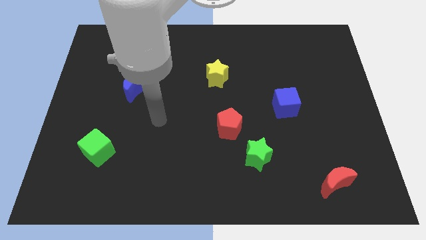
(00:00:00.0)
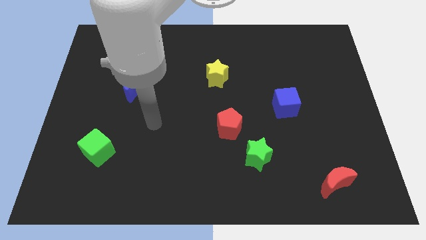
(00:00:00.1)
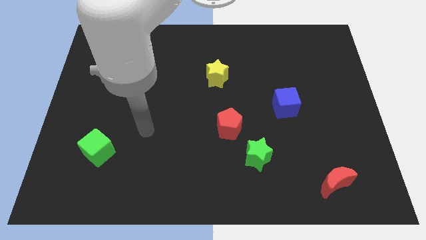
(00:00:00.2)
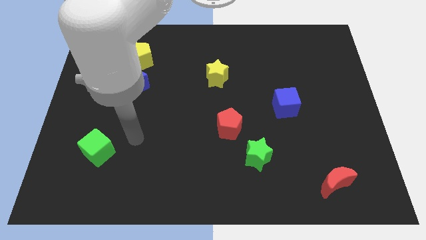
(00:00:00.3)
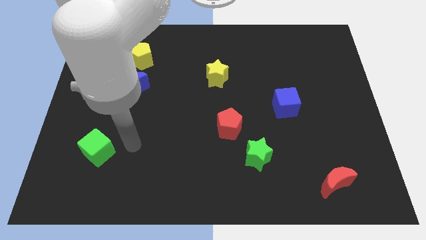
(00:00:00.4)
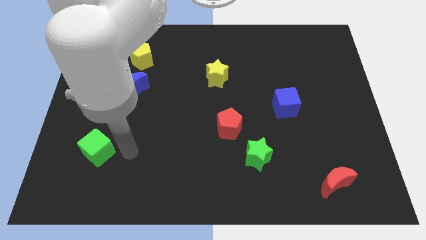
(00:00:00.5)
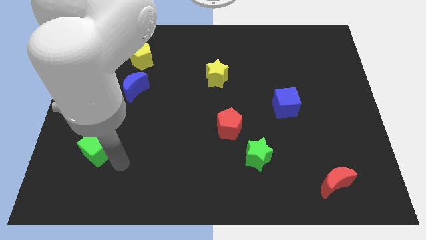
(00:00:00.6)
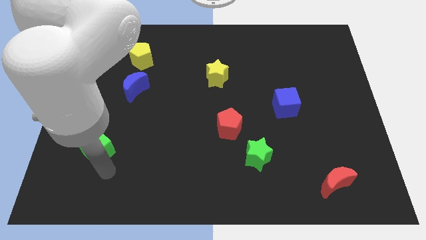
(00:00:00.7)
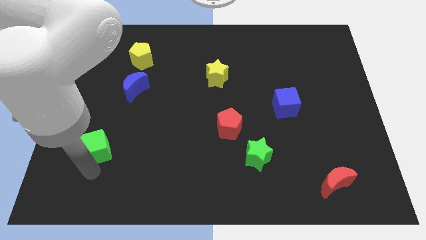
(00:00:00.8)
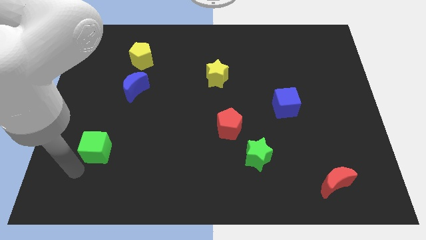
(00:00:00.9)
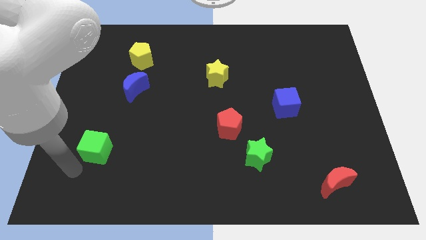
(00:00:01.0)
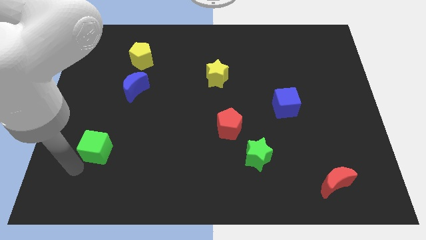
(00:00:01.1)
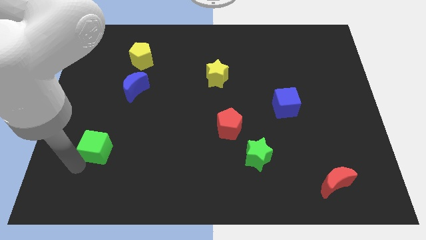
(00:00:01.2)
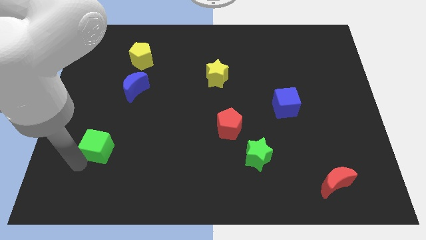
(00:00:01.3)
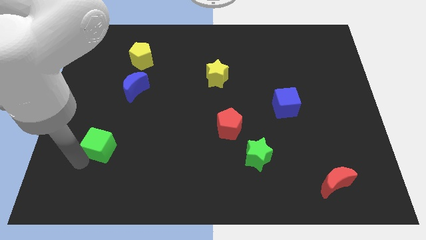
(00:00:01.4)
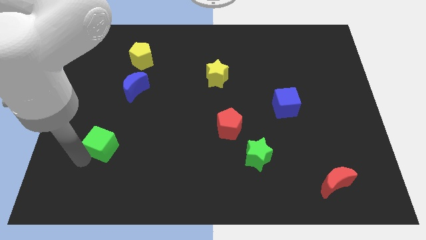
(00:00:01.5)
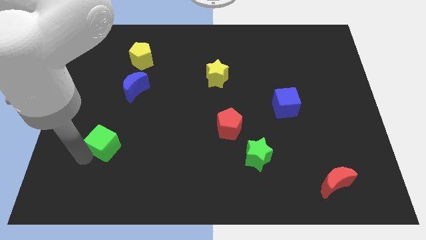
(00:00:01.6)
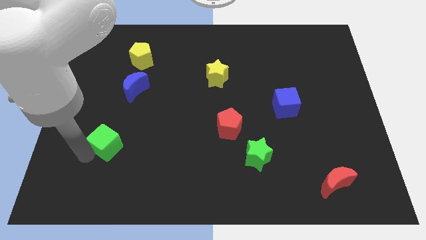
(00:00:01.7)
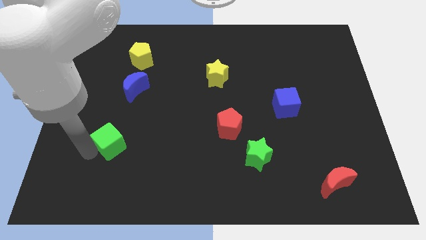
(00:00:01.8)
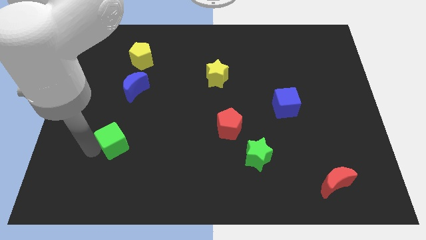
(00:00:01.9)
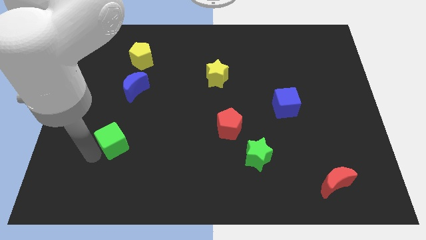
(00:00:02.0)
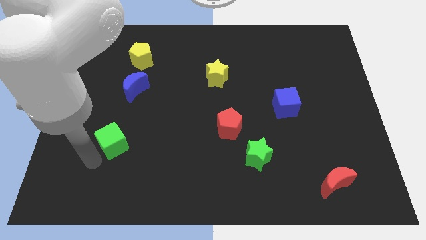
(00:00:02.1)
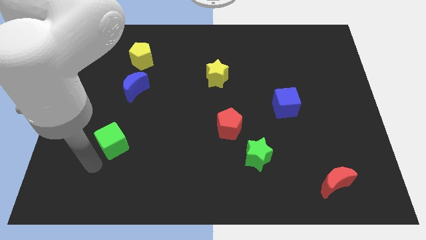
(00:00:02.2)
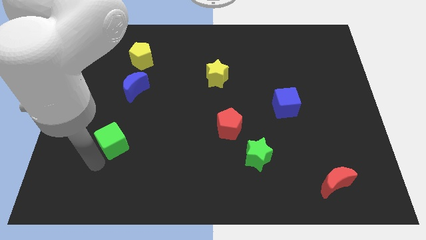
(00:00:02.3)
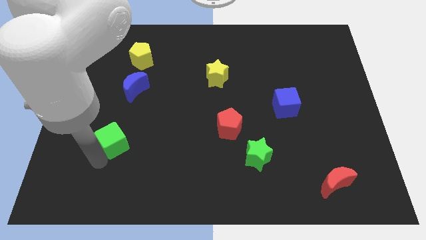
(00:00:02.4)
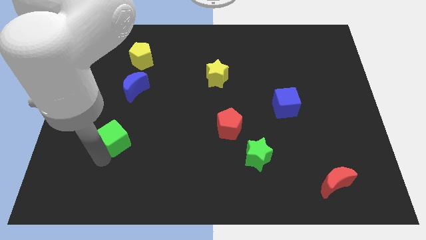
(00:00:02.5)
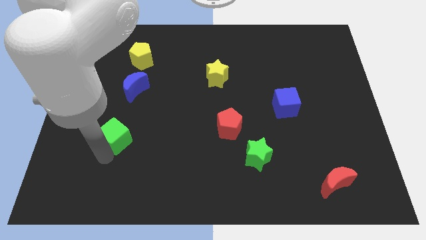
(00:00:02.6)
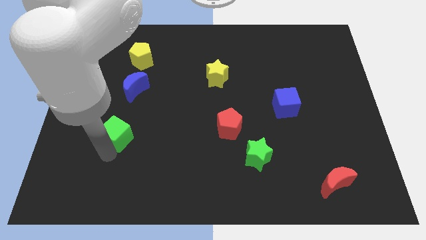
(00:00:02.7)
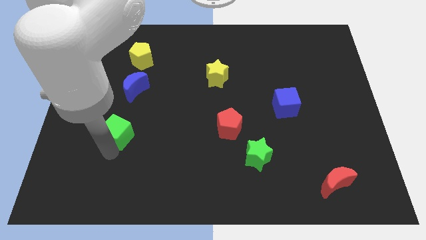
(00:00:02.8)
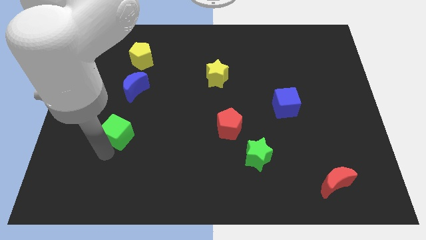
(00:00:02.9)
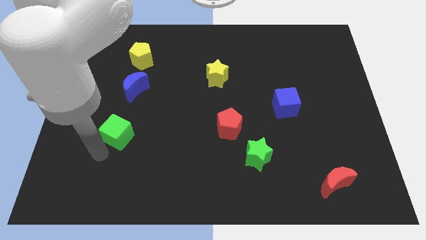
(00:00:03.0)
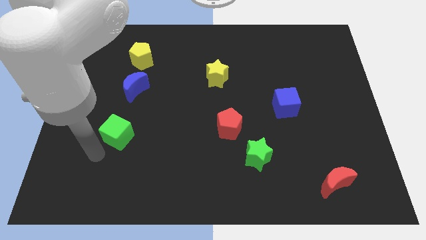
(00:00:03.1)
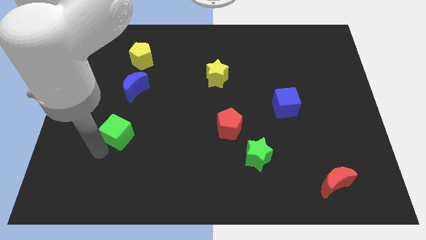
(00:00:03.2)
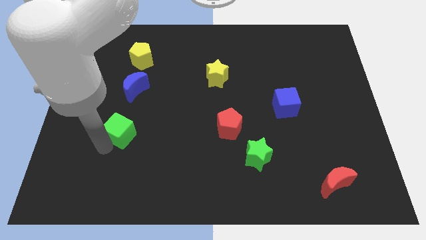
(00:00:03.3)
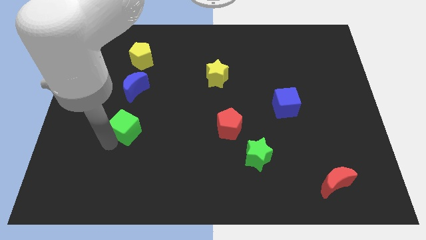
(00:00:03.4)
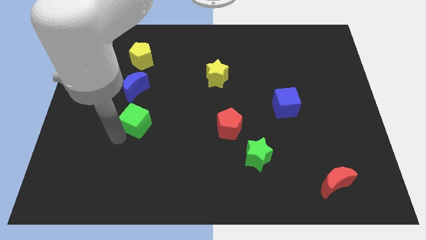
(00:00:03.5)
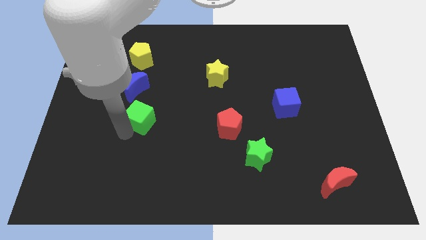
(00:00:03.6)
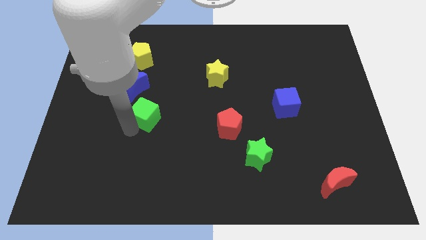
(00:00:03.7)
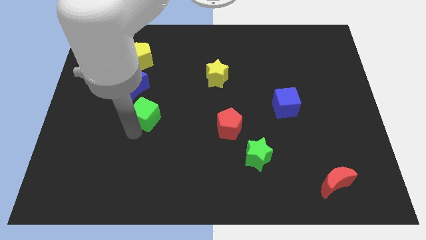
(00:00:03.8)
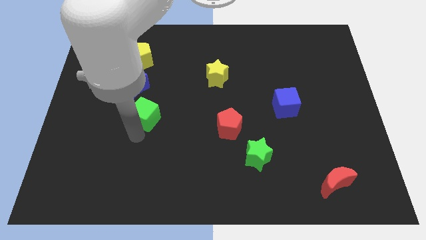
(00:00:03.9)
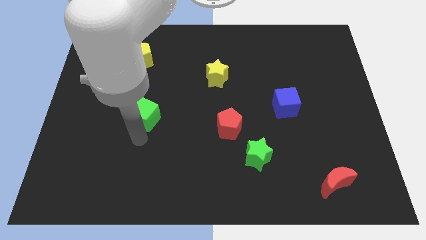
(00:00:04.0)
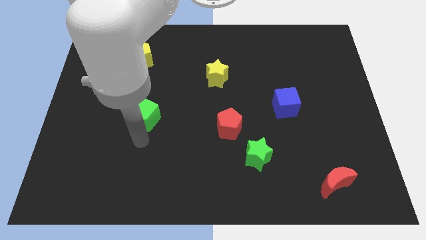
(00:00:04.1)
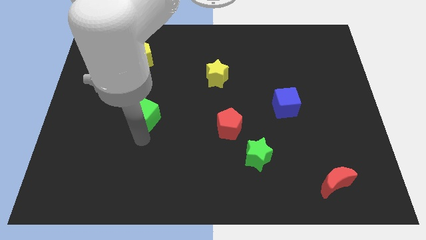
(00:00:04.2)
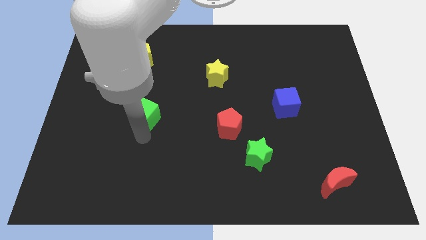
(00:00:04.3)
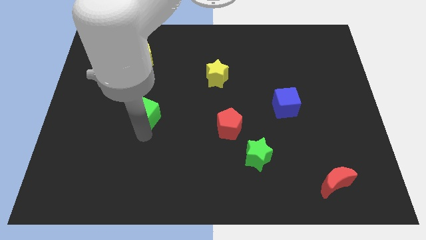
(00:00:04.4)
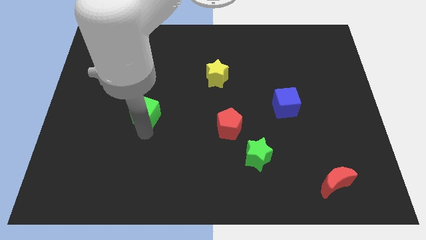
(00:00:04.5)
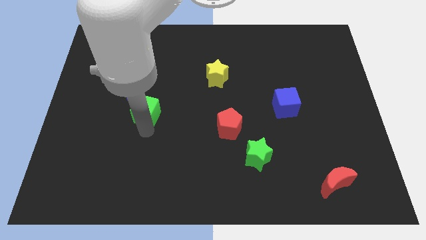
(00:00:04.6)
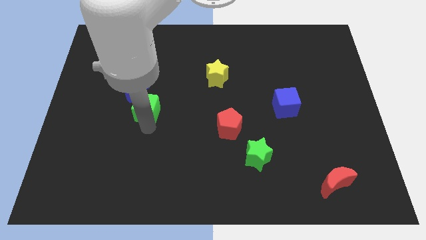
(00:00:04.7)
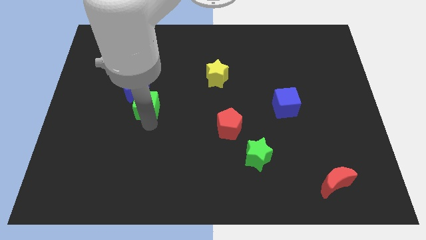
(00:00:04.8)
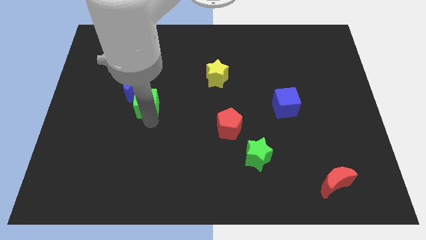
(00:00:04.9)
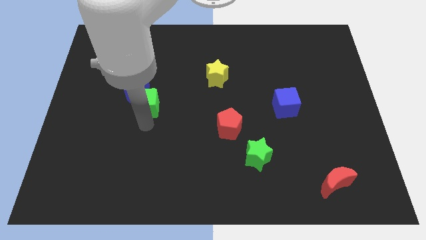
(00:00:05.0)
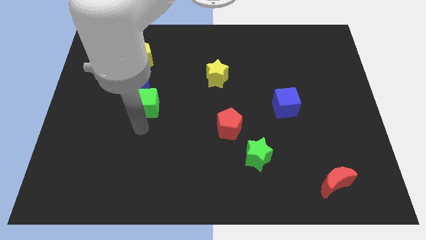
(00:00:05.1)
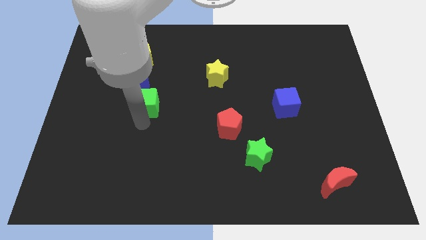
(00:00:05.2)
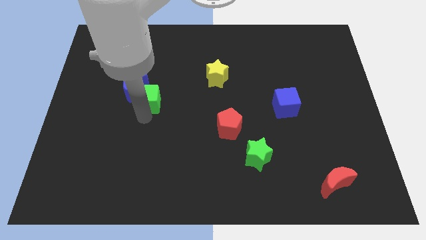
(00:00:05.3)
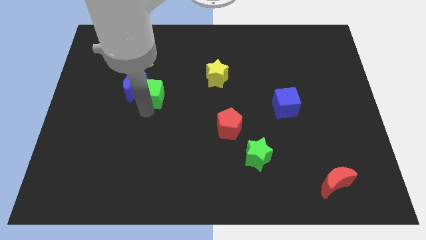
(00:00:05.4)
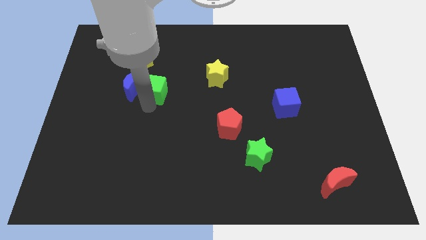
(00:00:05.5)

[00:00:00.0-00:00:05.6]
slide the green cube diagonally up and to the right of the blue moon

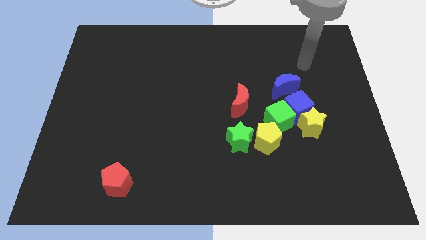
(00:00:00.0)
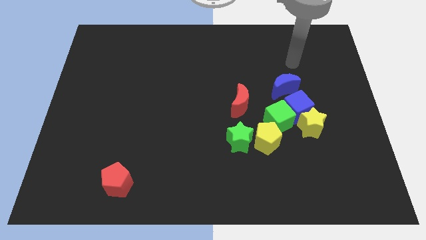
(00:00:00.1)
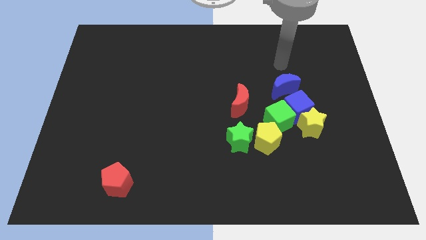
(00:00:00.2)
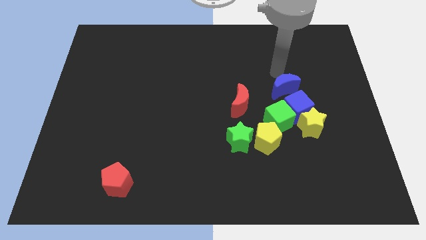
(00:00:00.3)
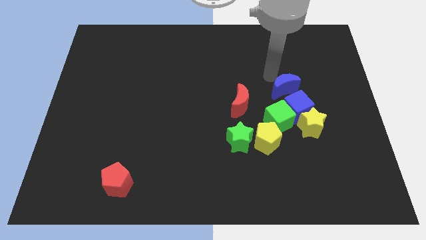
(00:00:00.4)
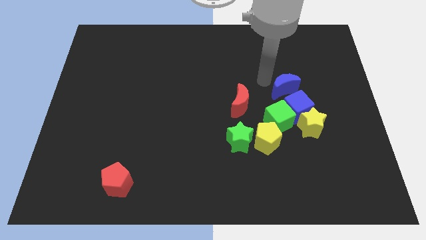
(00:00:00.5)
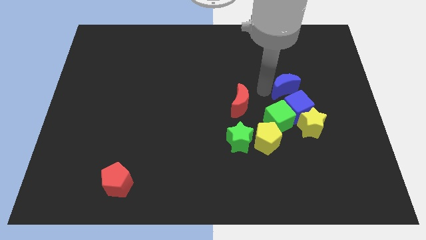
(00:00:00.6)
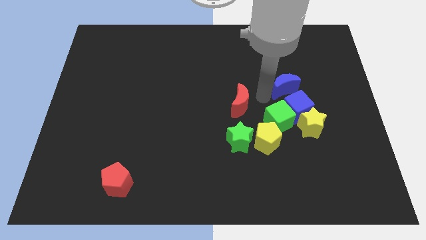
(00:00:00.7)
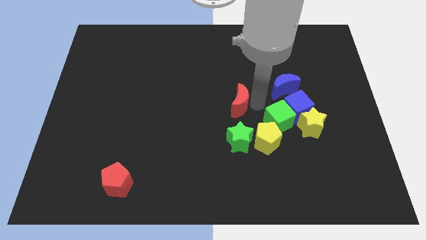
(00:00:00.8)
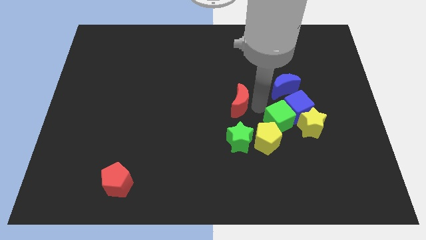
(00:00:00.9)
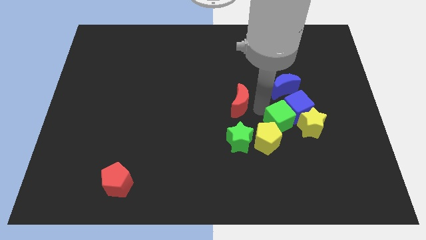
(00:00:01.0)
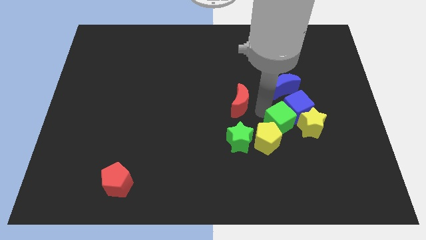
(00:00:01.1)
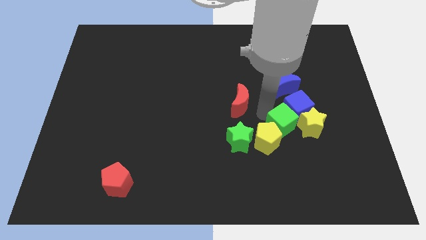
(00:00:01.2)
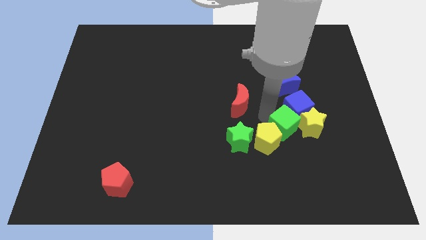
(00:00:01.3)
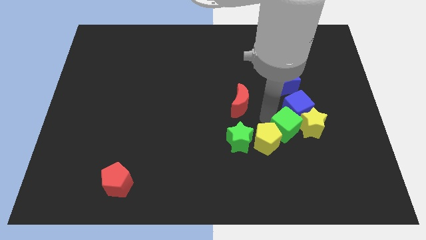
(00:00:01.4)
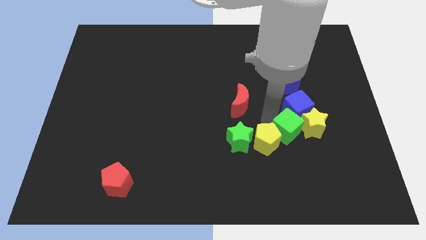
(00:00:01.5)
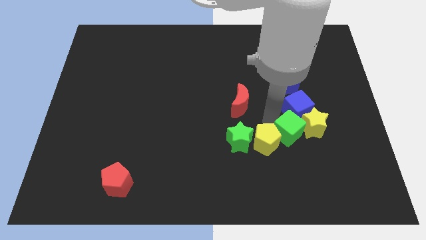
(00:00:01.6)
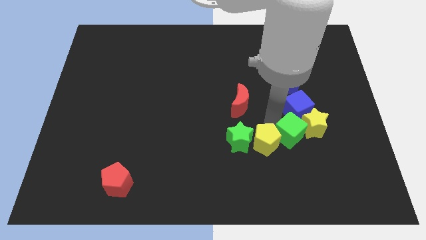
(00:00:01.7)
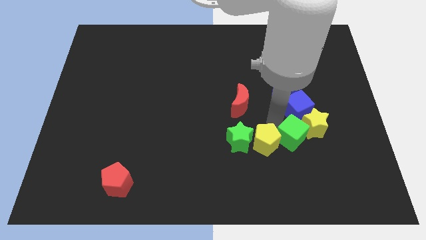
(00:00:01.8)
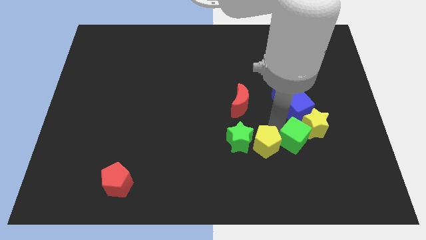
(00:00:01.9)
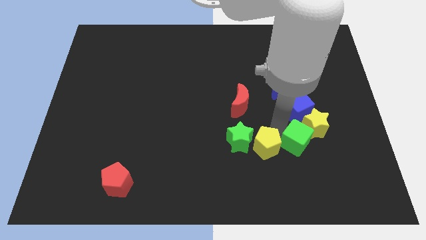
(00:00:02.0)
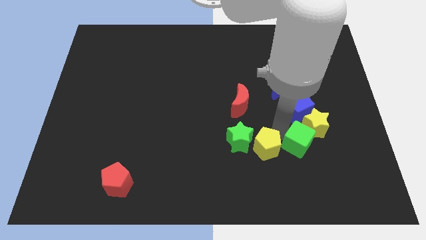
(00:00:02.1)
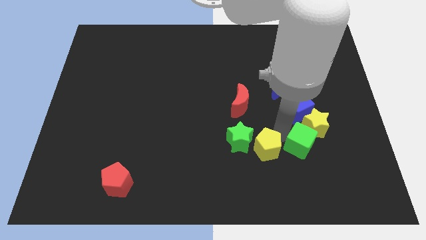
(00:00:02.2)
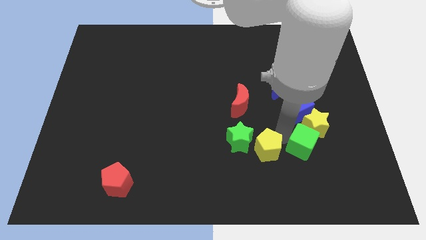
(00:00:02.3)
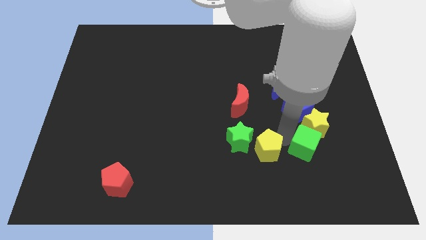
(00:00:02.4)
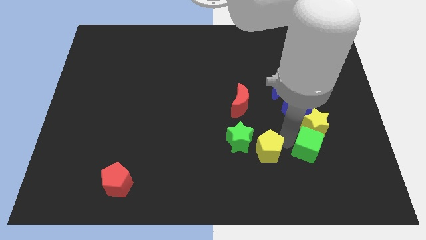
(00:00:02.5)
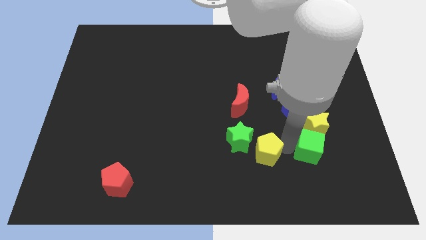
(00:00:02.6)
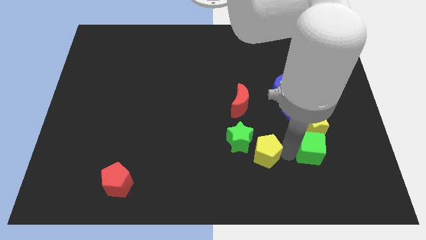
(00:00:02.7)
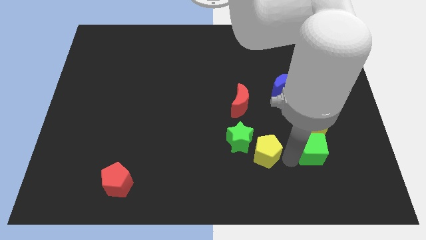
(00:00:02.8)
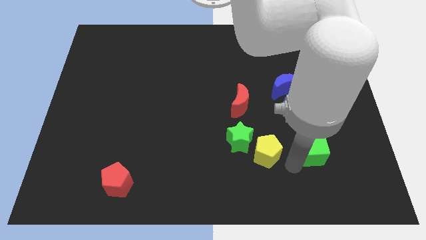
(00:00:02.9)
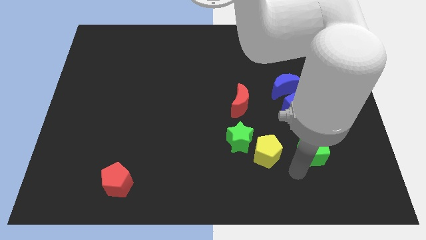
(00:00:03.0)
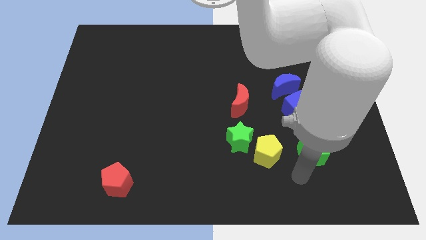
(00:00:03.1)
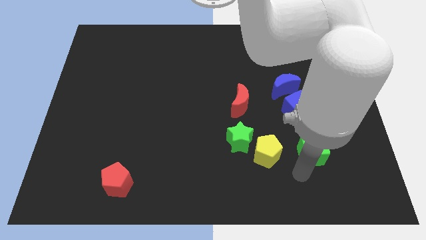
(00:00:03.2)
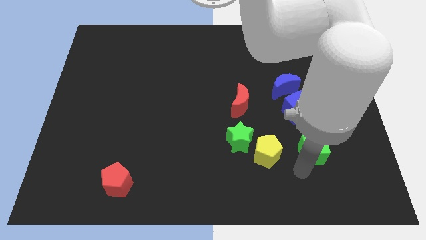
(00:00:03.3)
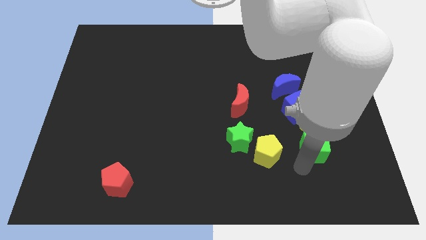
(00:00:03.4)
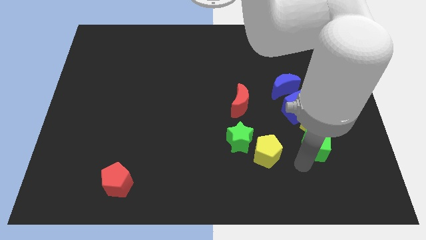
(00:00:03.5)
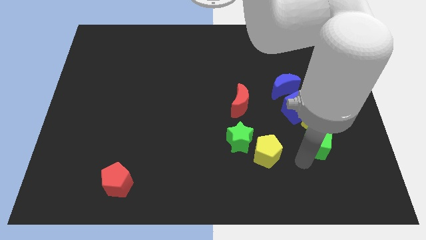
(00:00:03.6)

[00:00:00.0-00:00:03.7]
push the green cube diagonally down and to the right of the blue cube
